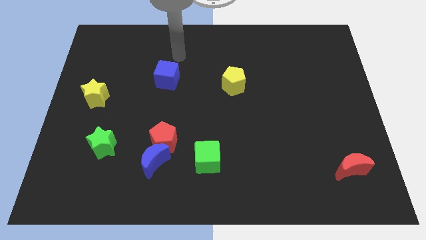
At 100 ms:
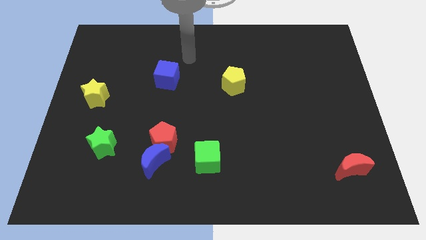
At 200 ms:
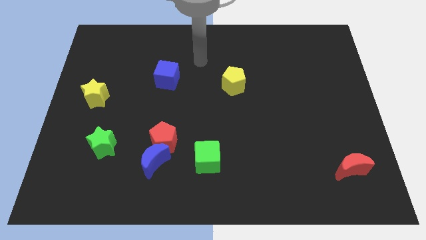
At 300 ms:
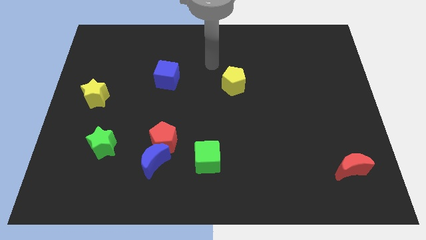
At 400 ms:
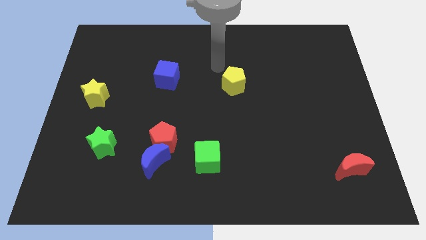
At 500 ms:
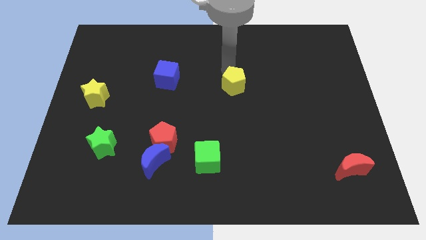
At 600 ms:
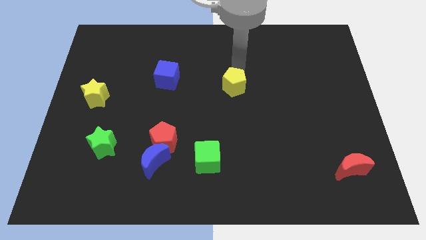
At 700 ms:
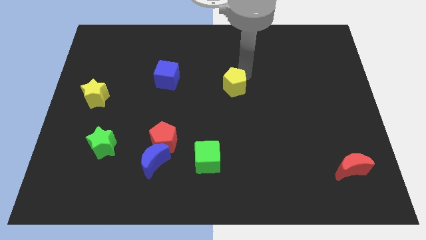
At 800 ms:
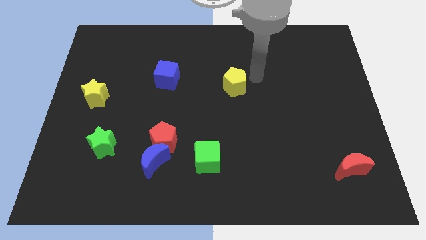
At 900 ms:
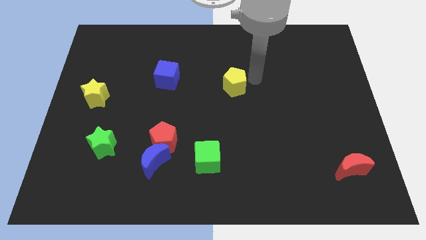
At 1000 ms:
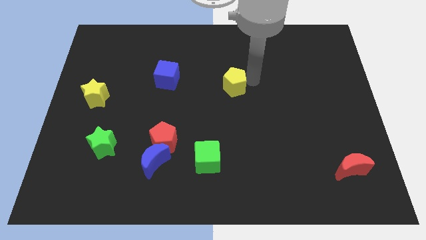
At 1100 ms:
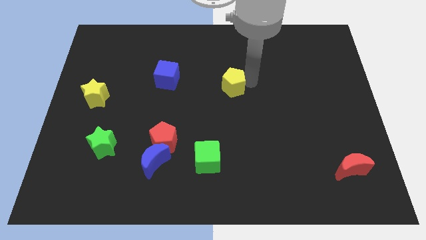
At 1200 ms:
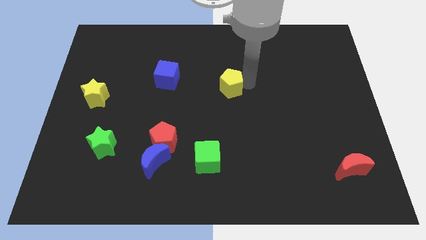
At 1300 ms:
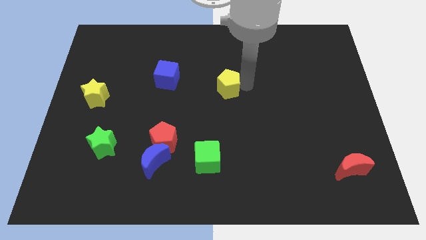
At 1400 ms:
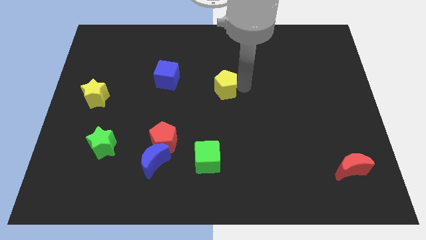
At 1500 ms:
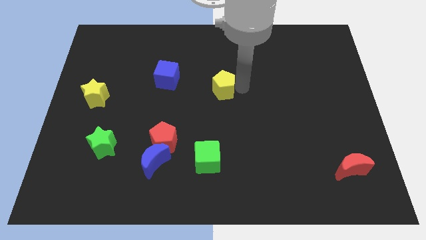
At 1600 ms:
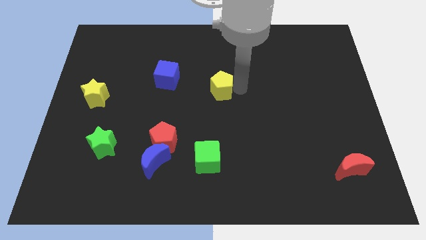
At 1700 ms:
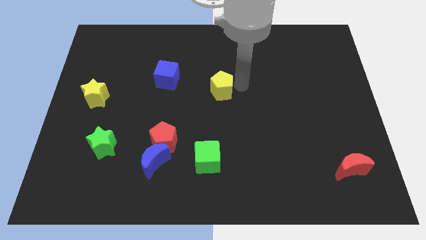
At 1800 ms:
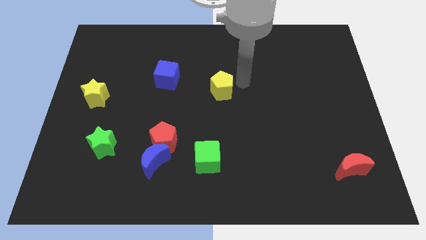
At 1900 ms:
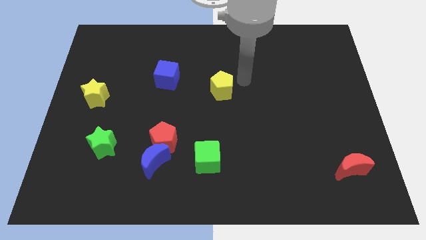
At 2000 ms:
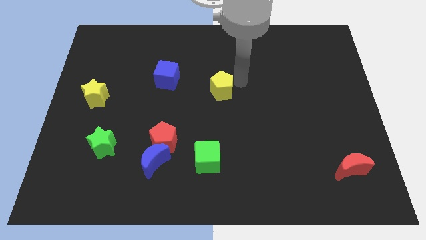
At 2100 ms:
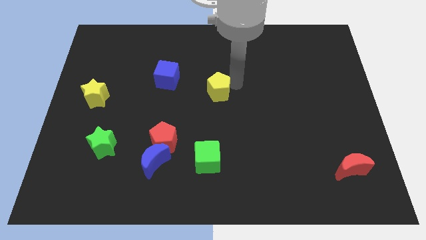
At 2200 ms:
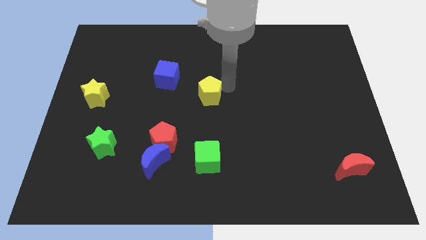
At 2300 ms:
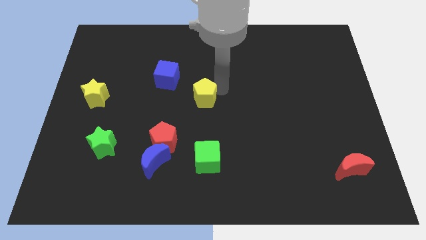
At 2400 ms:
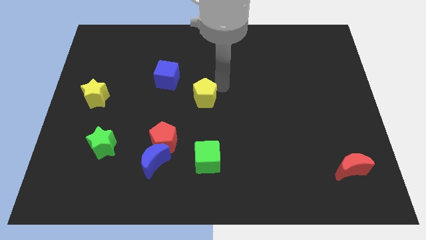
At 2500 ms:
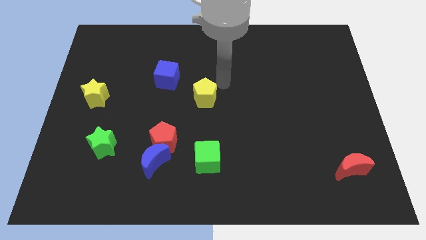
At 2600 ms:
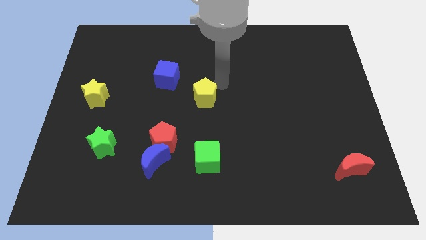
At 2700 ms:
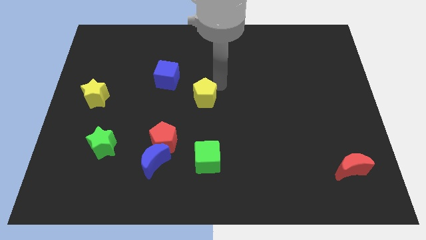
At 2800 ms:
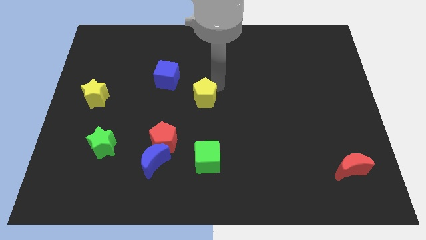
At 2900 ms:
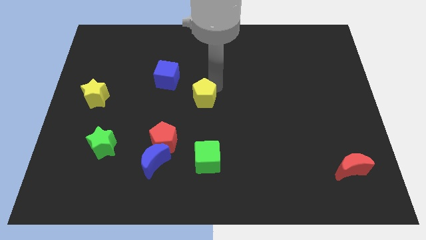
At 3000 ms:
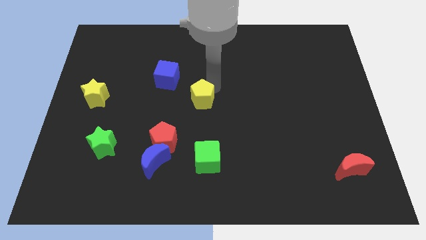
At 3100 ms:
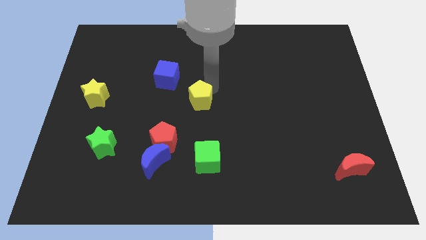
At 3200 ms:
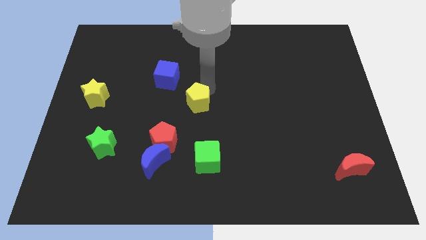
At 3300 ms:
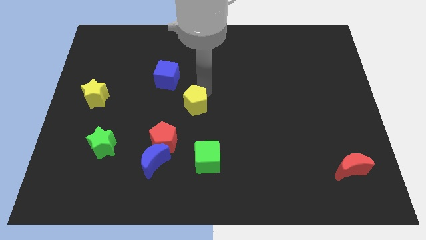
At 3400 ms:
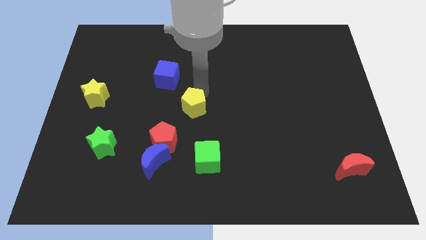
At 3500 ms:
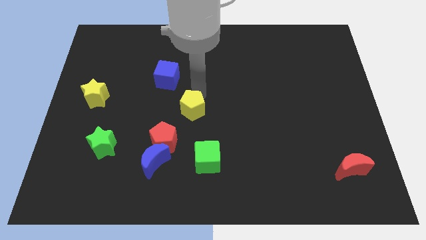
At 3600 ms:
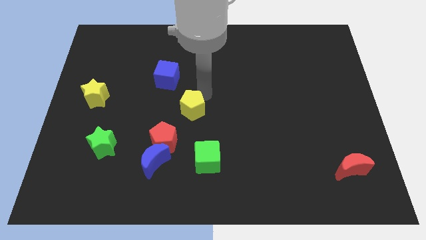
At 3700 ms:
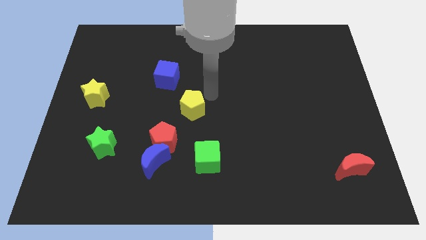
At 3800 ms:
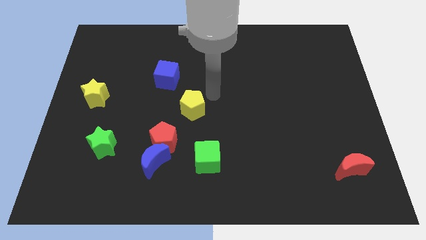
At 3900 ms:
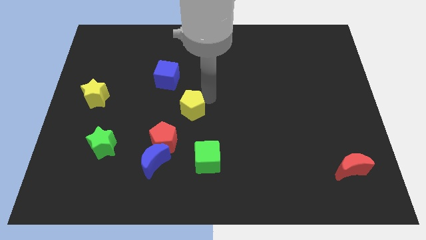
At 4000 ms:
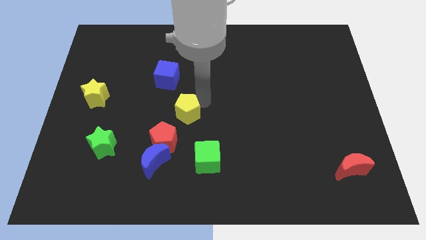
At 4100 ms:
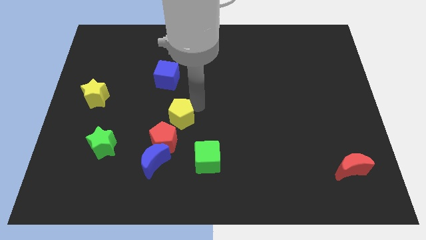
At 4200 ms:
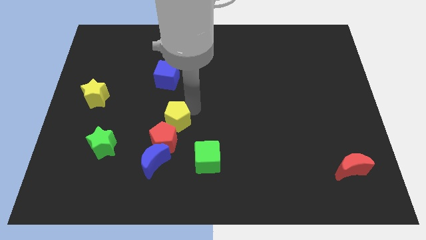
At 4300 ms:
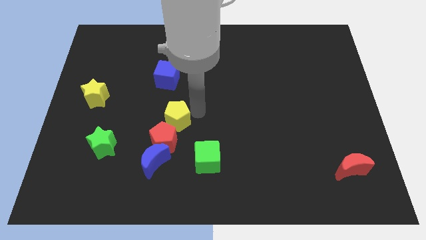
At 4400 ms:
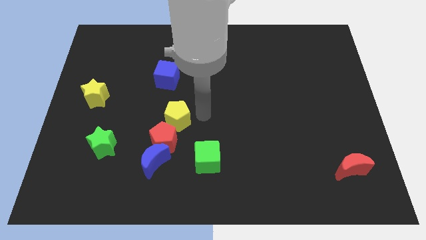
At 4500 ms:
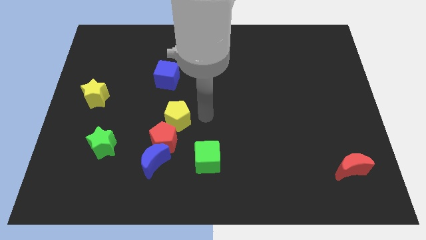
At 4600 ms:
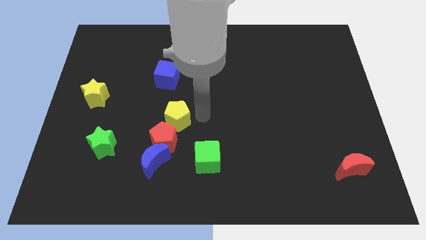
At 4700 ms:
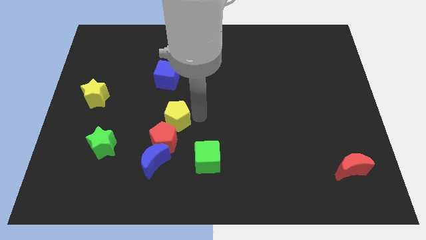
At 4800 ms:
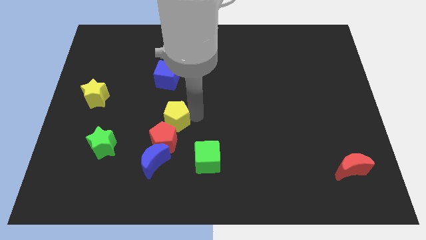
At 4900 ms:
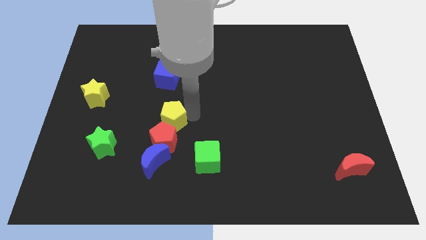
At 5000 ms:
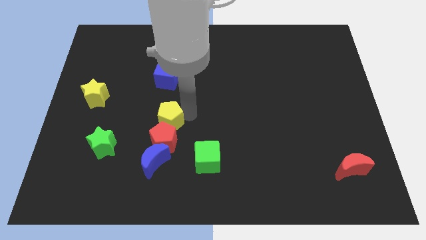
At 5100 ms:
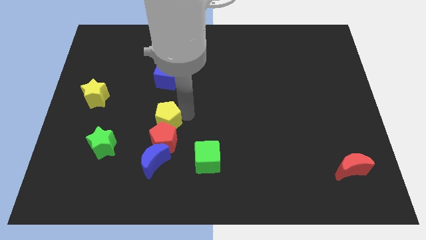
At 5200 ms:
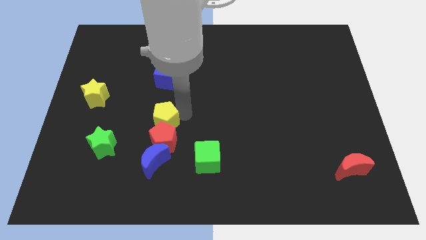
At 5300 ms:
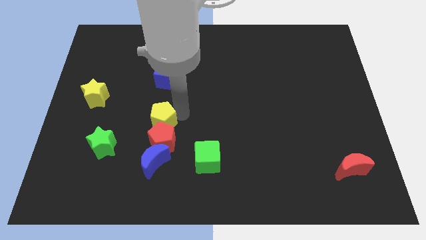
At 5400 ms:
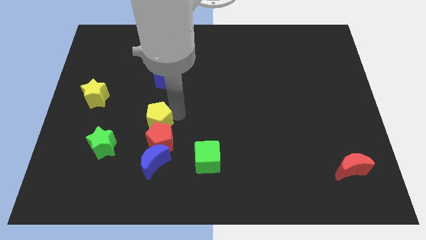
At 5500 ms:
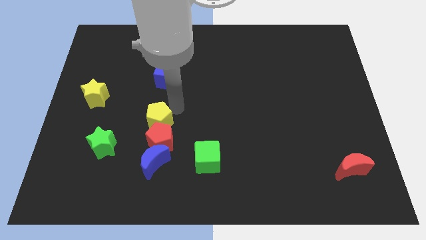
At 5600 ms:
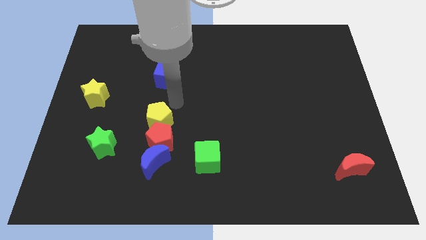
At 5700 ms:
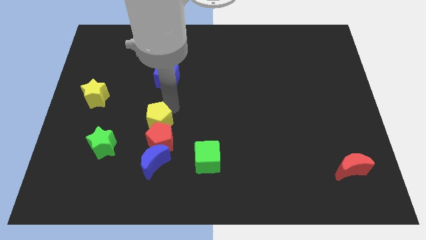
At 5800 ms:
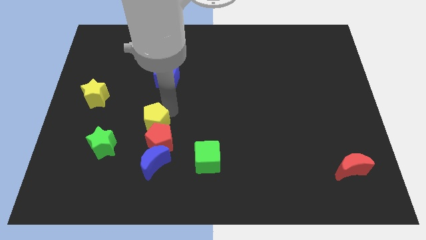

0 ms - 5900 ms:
push the yellow pentagon down and left

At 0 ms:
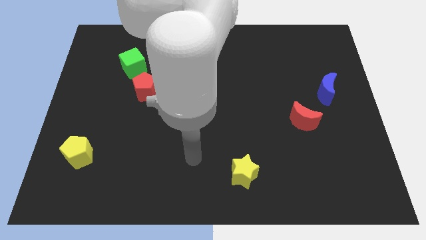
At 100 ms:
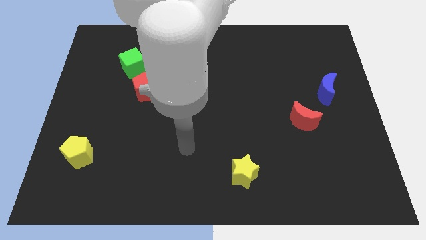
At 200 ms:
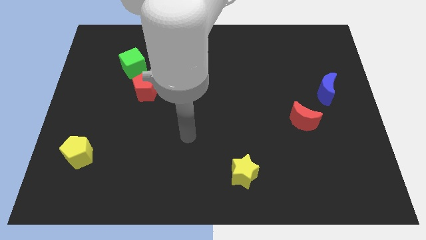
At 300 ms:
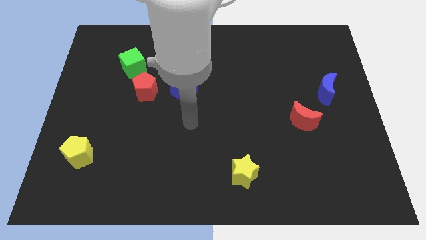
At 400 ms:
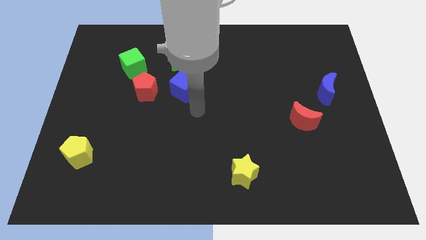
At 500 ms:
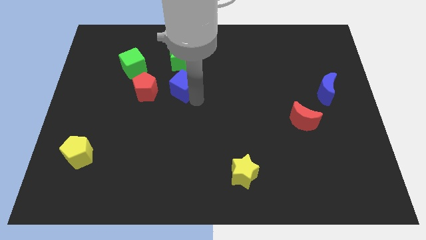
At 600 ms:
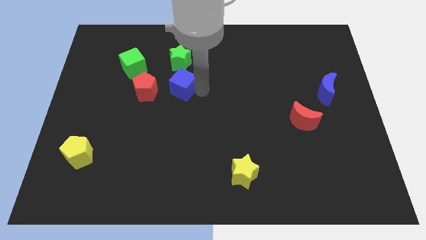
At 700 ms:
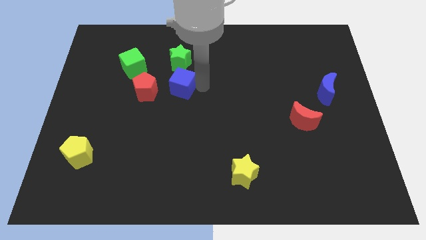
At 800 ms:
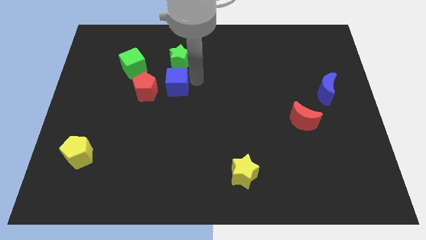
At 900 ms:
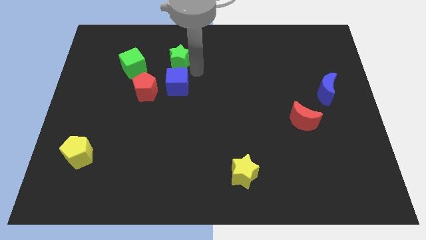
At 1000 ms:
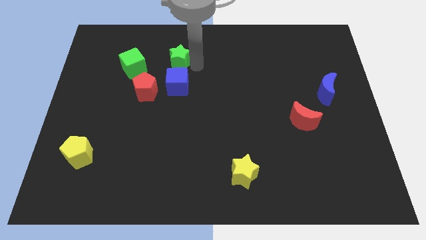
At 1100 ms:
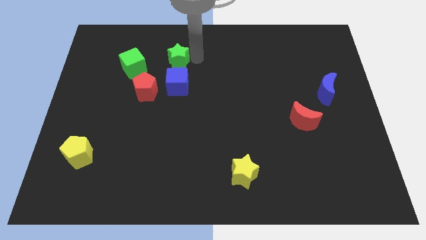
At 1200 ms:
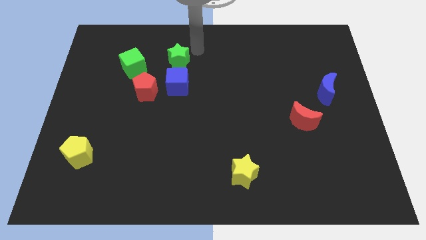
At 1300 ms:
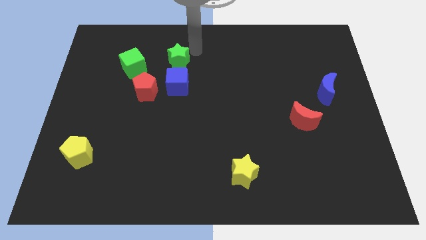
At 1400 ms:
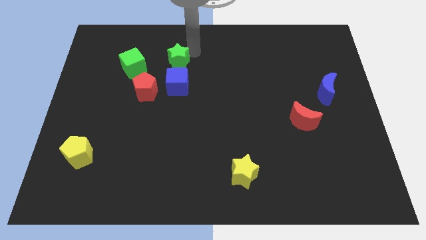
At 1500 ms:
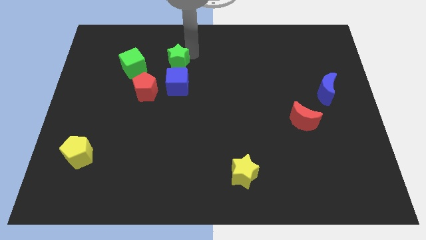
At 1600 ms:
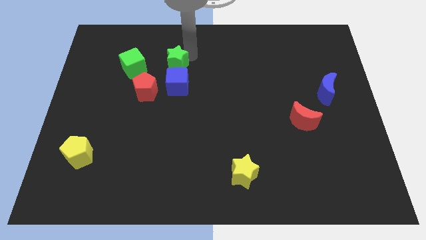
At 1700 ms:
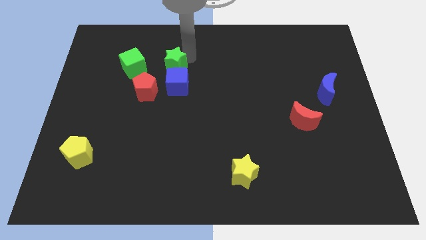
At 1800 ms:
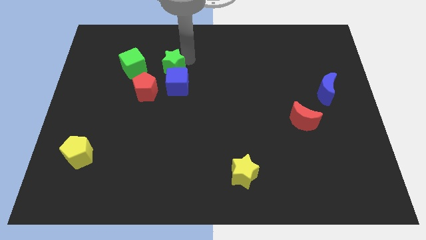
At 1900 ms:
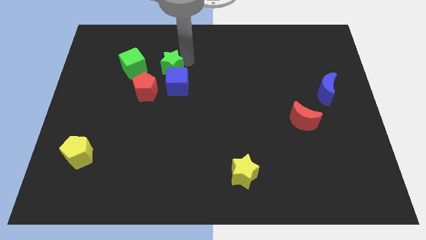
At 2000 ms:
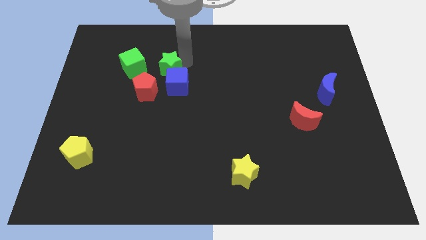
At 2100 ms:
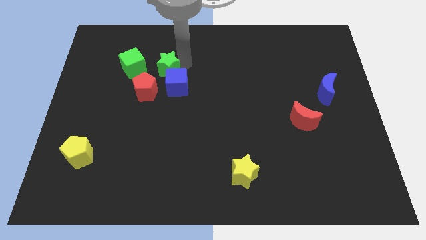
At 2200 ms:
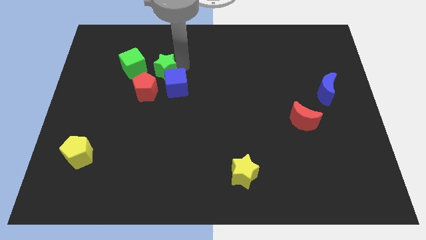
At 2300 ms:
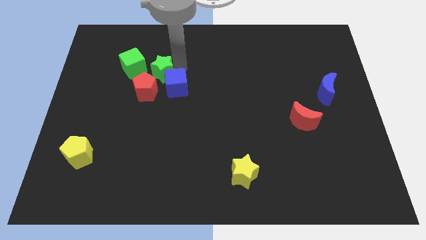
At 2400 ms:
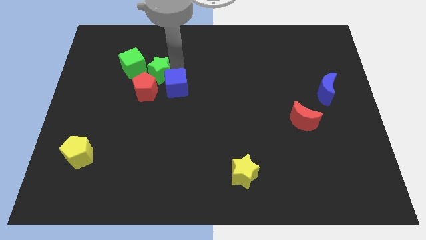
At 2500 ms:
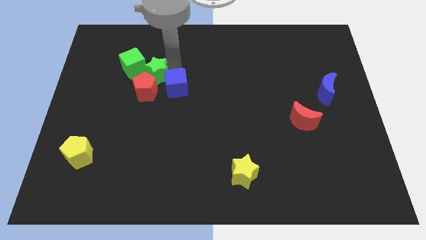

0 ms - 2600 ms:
slightly slide the green star downwards and then left
